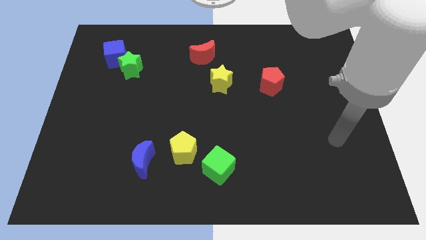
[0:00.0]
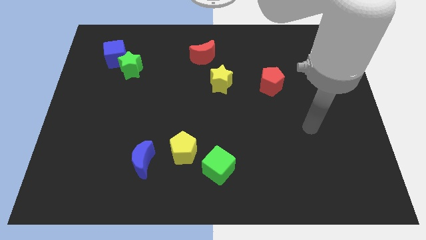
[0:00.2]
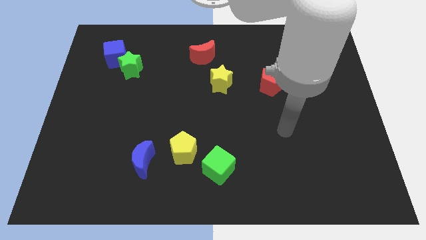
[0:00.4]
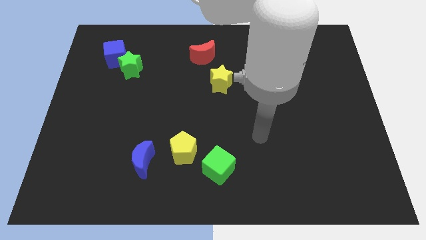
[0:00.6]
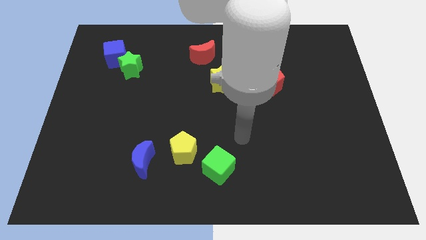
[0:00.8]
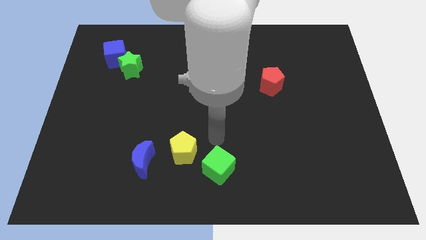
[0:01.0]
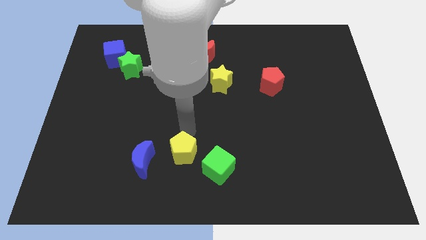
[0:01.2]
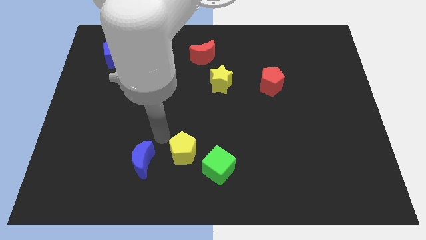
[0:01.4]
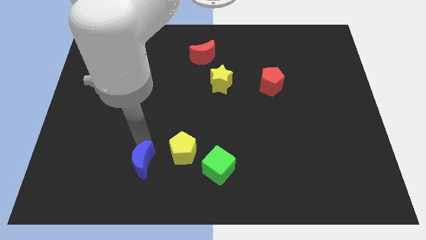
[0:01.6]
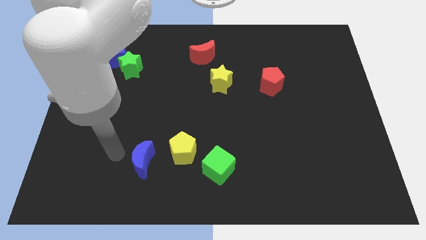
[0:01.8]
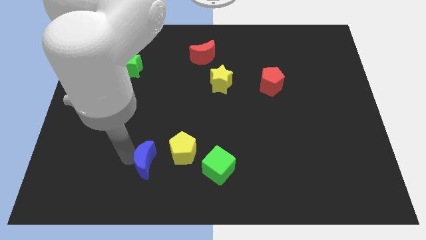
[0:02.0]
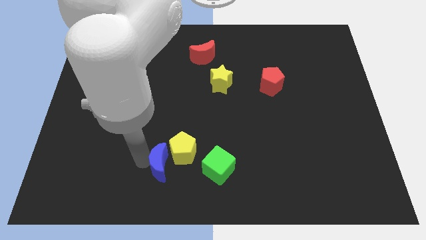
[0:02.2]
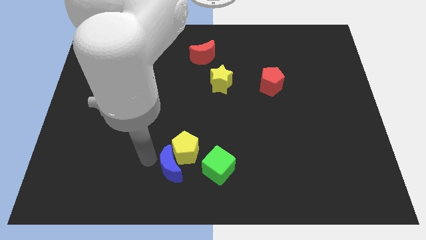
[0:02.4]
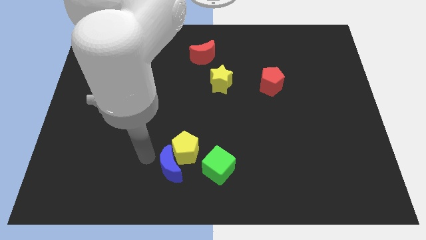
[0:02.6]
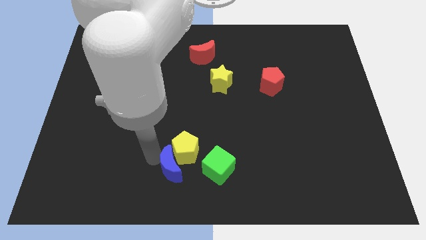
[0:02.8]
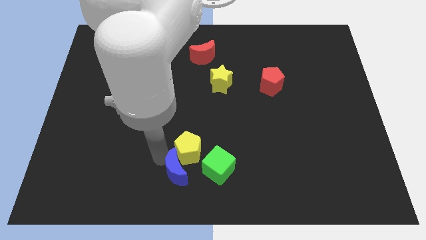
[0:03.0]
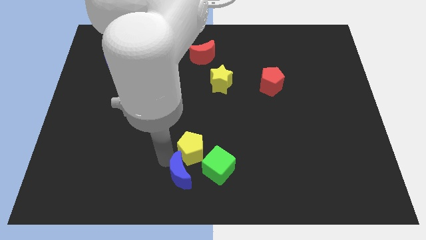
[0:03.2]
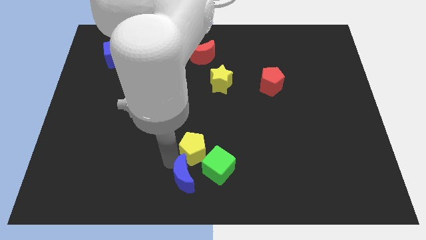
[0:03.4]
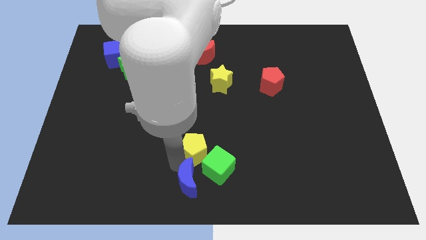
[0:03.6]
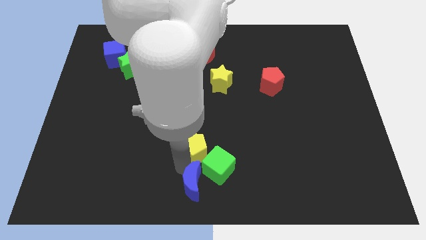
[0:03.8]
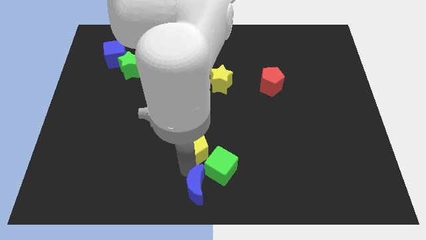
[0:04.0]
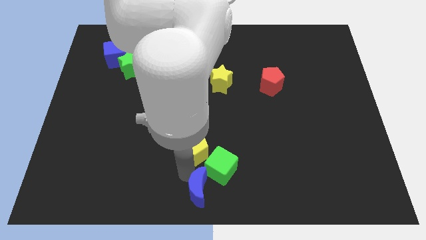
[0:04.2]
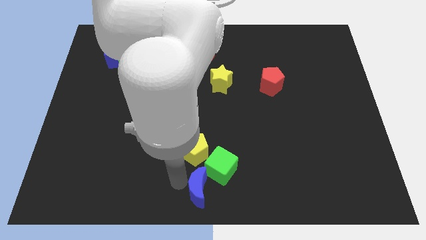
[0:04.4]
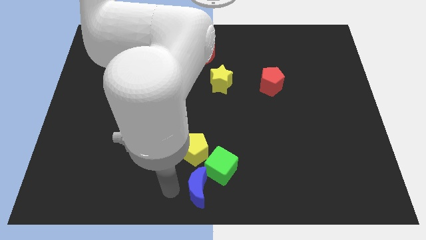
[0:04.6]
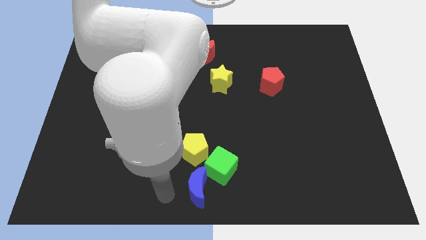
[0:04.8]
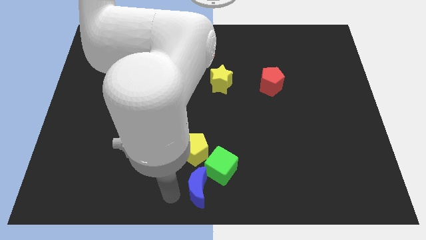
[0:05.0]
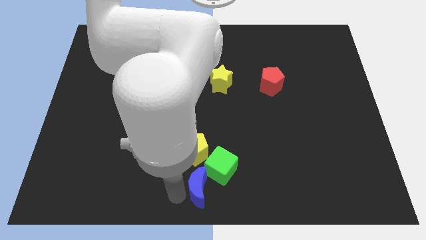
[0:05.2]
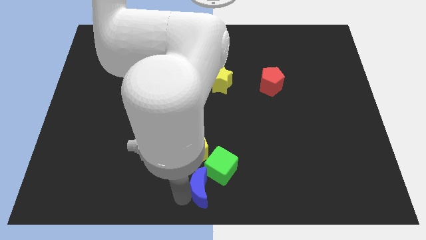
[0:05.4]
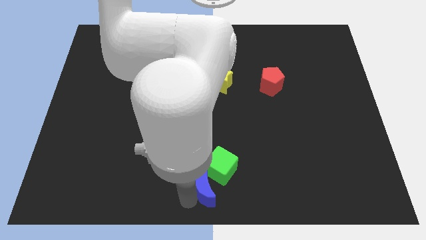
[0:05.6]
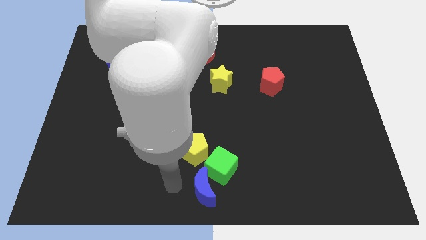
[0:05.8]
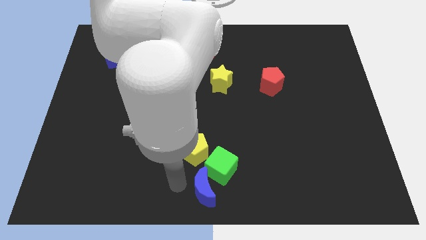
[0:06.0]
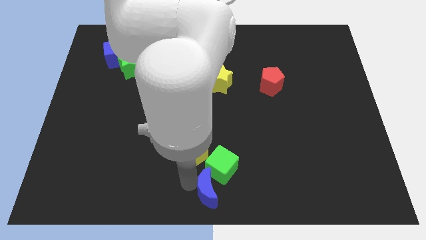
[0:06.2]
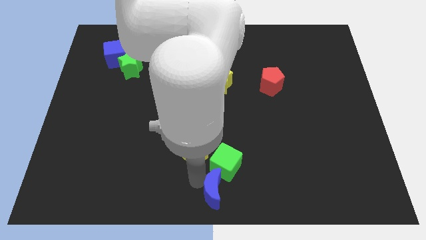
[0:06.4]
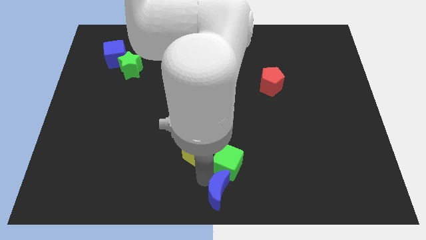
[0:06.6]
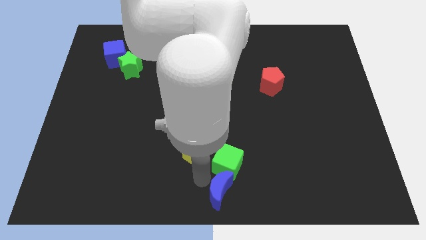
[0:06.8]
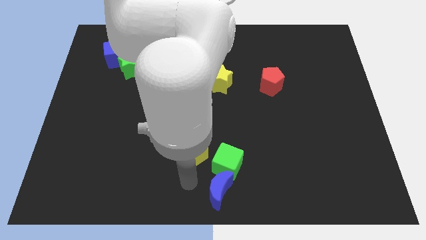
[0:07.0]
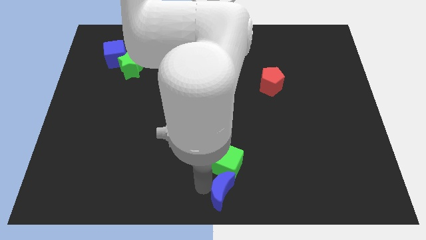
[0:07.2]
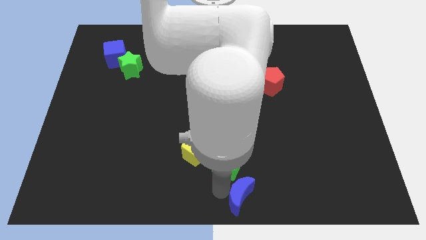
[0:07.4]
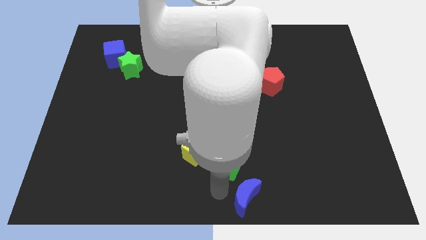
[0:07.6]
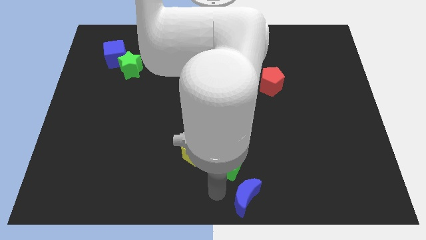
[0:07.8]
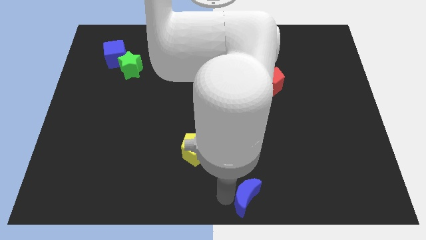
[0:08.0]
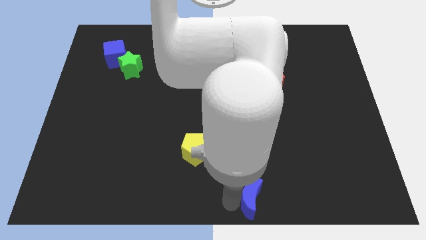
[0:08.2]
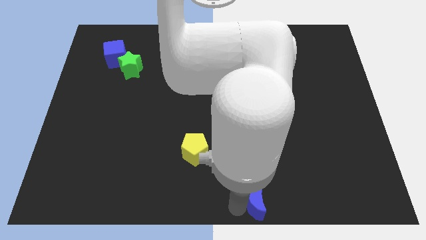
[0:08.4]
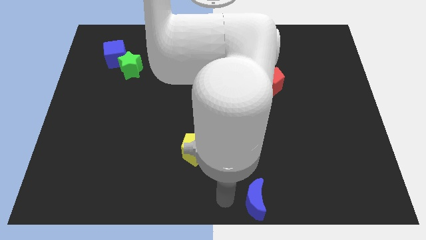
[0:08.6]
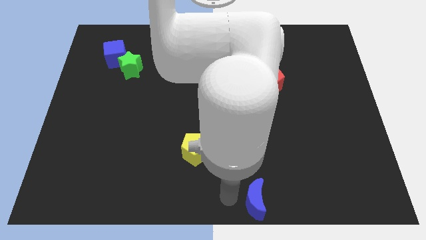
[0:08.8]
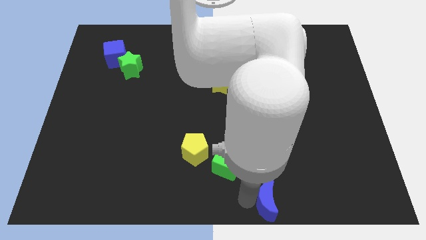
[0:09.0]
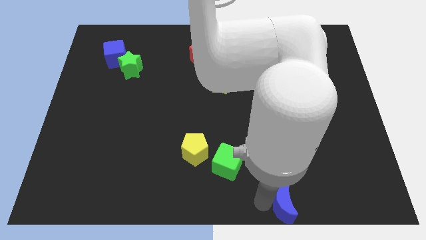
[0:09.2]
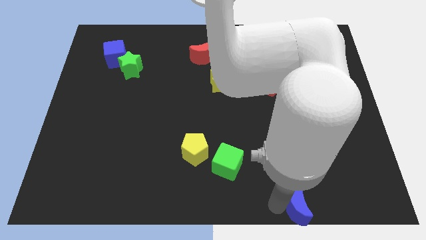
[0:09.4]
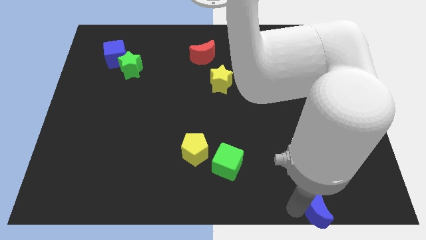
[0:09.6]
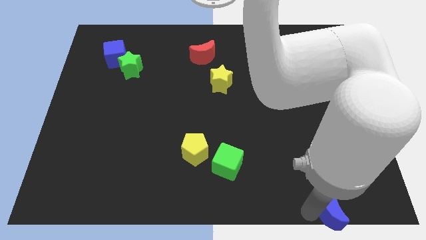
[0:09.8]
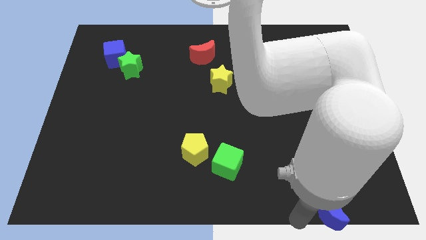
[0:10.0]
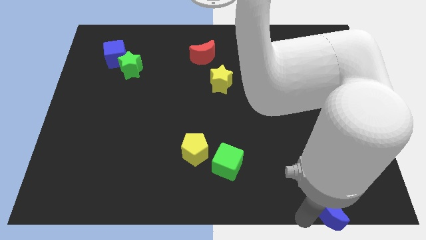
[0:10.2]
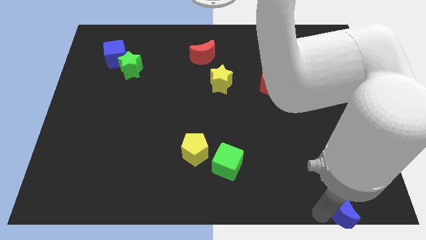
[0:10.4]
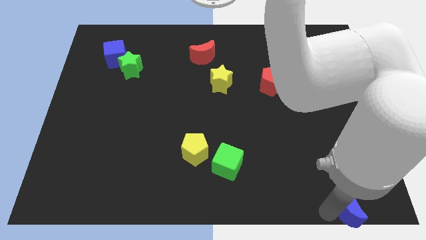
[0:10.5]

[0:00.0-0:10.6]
move the blue moon to the lower right corner

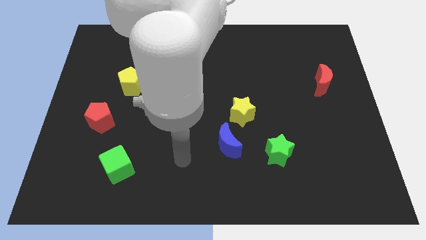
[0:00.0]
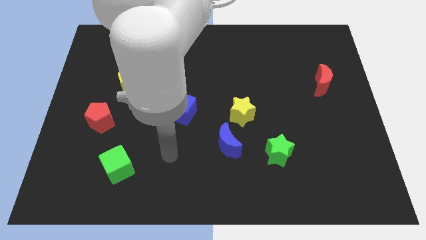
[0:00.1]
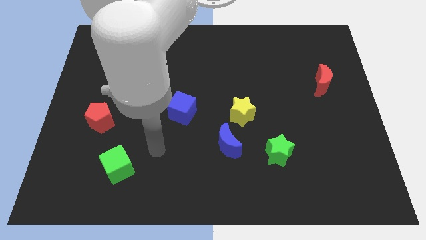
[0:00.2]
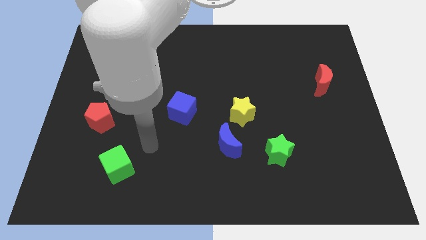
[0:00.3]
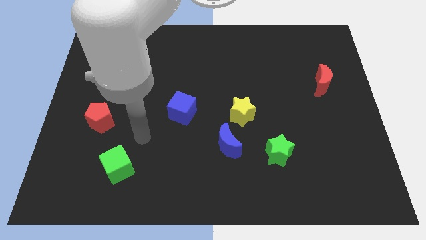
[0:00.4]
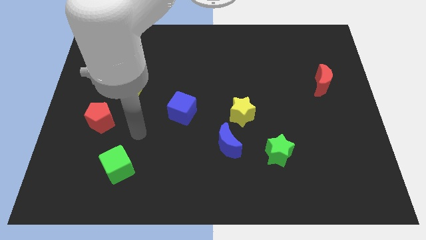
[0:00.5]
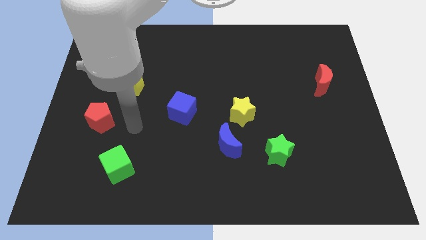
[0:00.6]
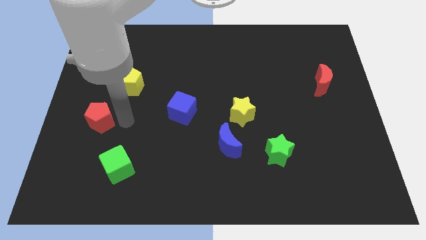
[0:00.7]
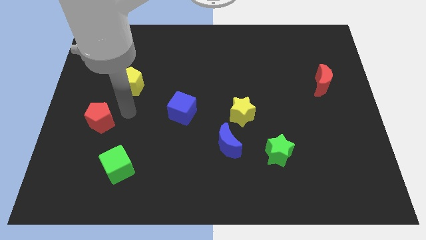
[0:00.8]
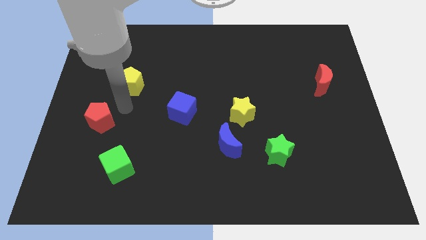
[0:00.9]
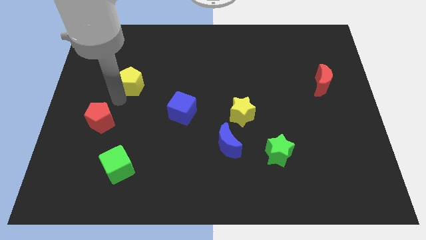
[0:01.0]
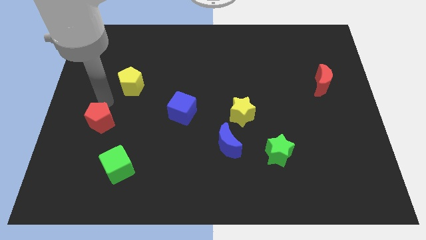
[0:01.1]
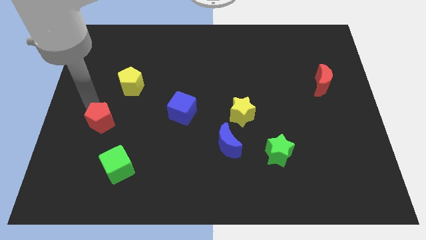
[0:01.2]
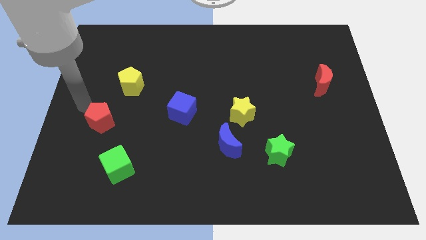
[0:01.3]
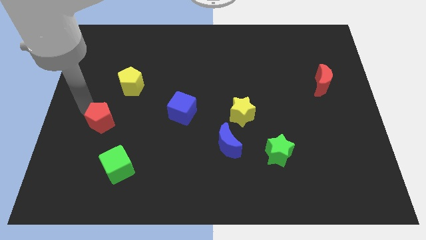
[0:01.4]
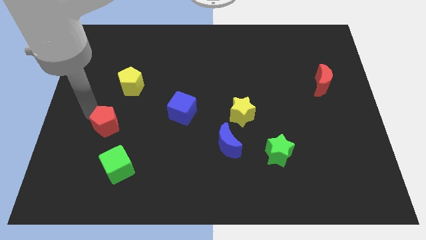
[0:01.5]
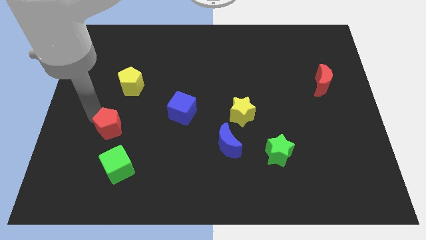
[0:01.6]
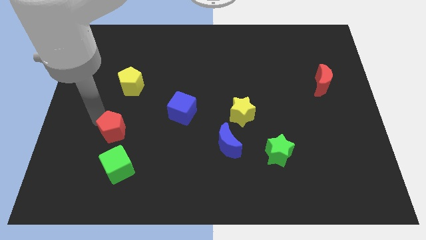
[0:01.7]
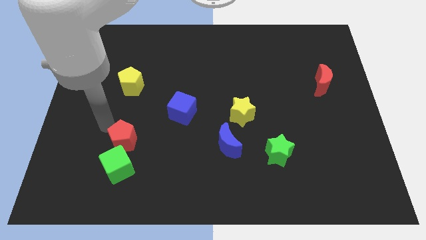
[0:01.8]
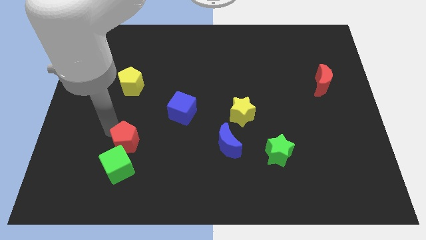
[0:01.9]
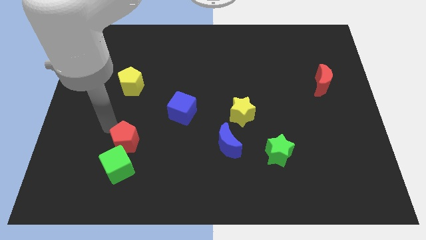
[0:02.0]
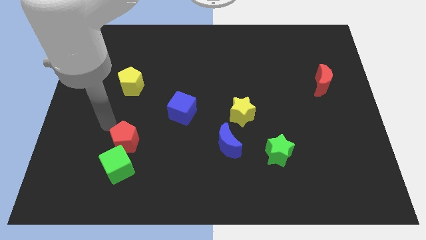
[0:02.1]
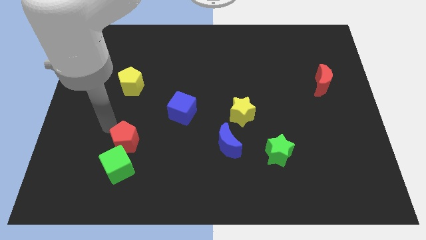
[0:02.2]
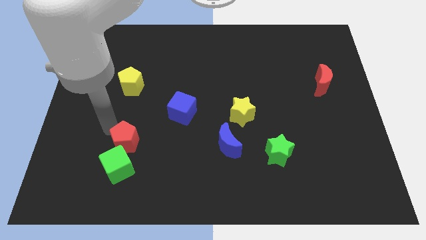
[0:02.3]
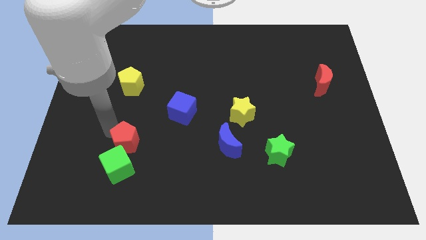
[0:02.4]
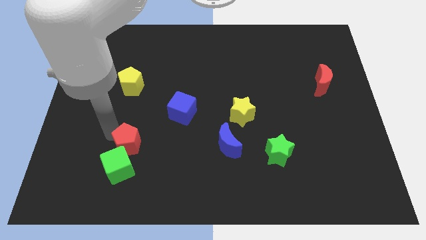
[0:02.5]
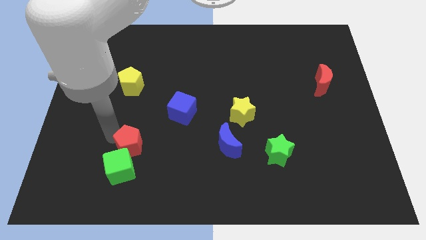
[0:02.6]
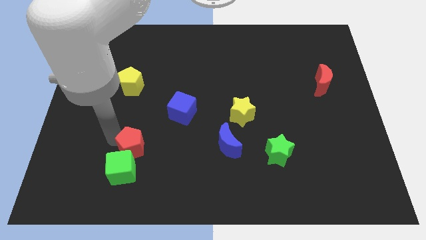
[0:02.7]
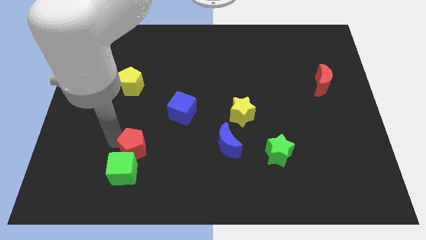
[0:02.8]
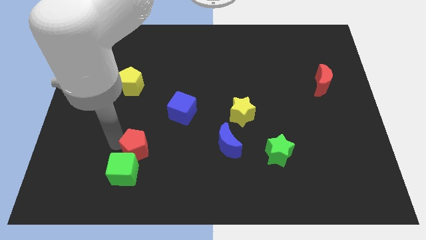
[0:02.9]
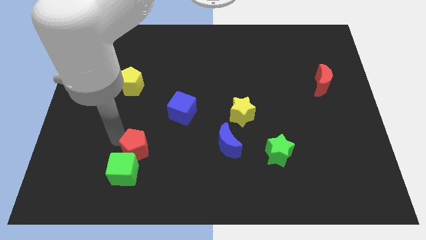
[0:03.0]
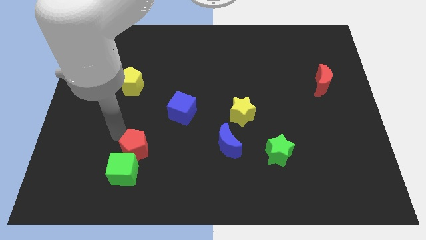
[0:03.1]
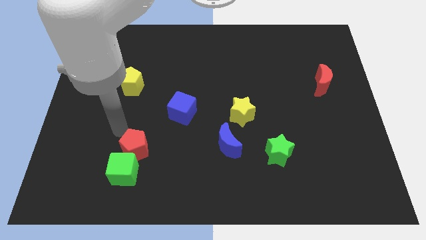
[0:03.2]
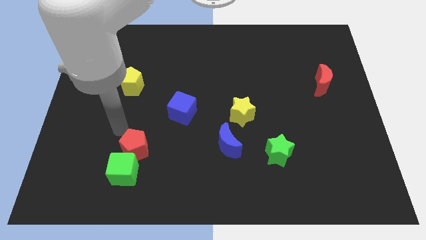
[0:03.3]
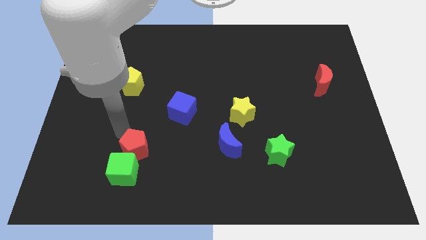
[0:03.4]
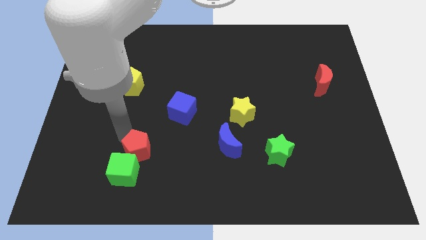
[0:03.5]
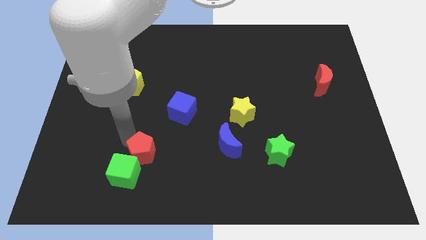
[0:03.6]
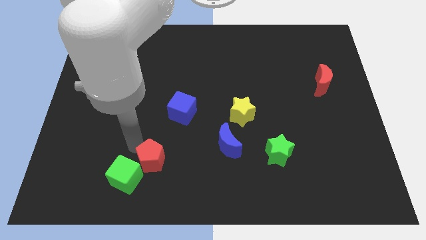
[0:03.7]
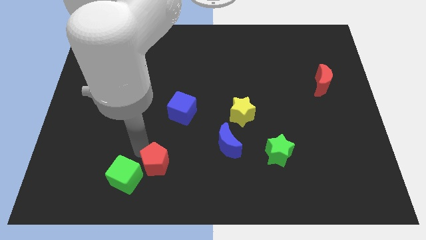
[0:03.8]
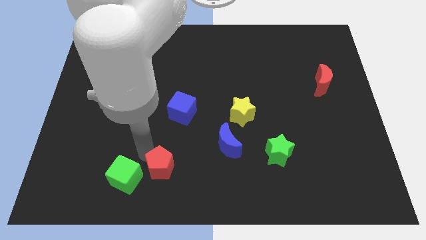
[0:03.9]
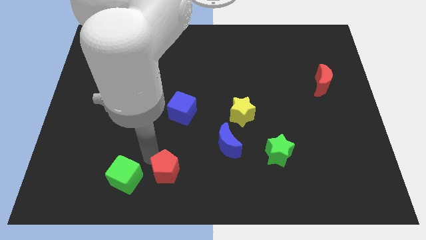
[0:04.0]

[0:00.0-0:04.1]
move the red pentagon to the bottom
